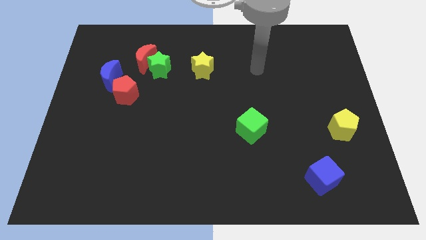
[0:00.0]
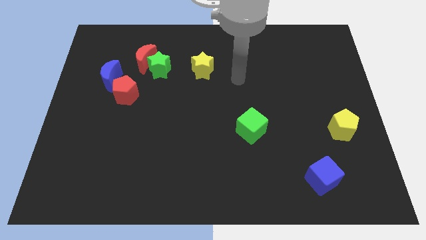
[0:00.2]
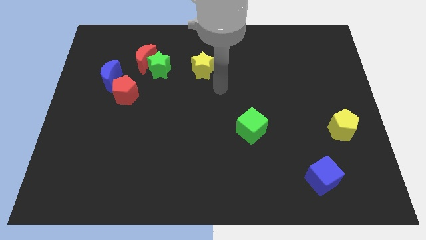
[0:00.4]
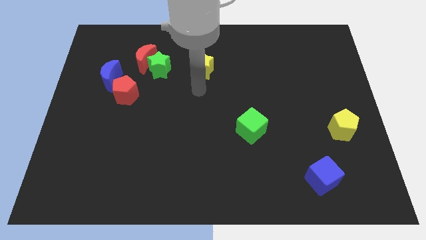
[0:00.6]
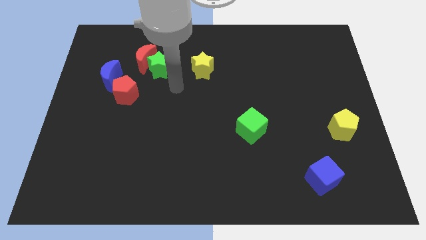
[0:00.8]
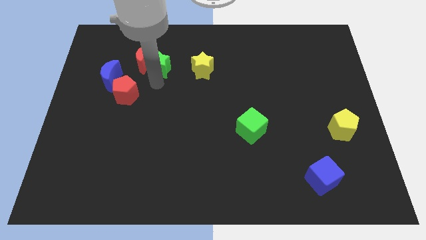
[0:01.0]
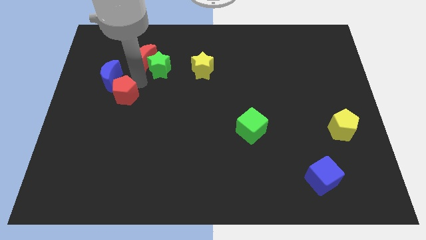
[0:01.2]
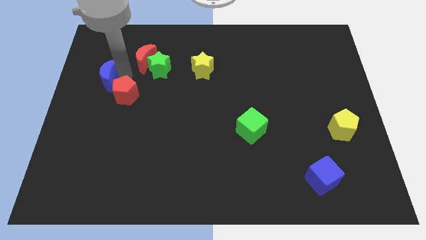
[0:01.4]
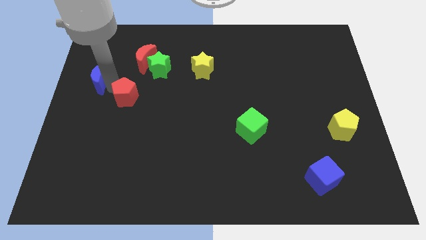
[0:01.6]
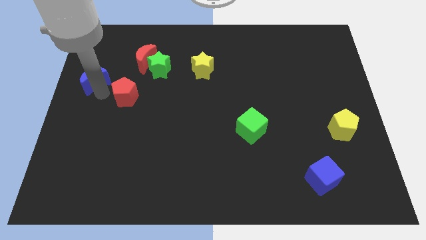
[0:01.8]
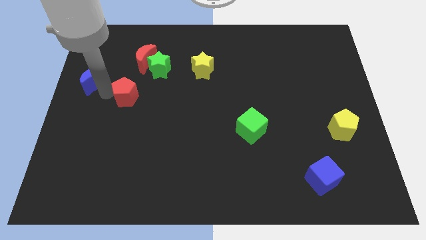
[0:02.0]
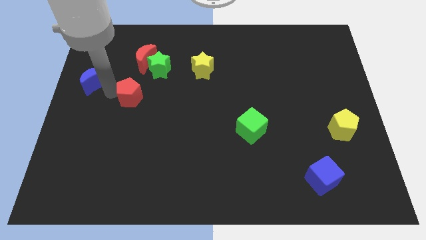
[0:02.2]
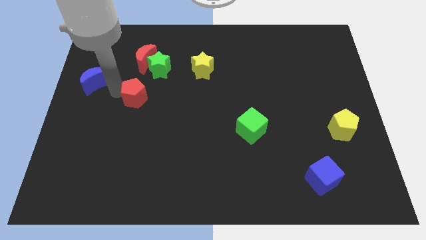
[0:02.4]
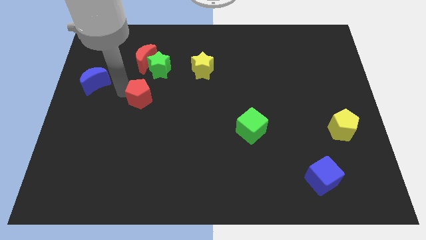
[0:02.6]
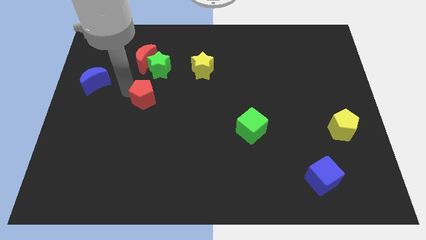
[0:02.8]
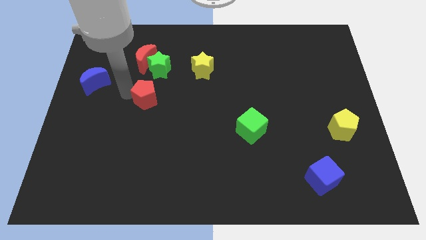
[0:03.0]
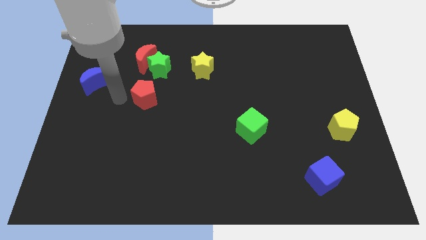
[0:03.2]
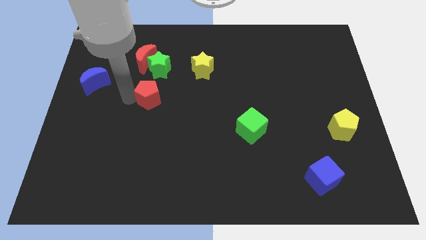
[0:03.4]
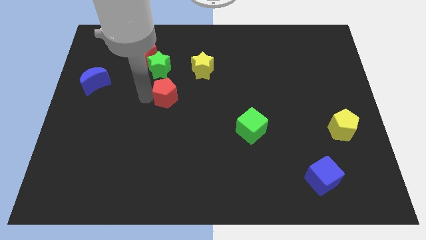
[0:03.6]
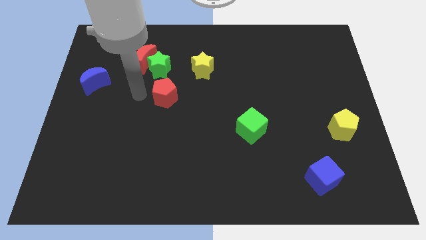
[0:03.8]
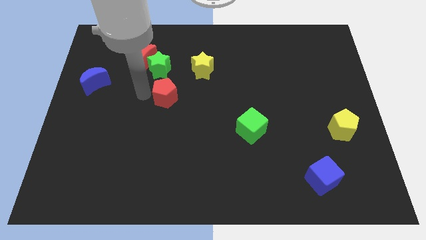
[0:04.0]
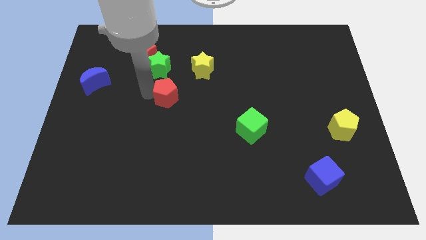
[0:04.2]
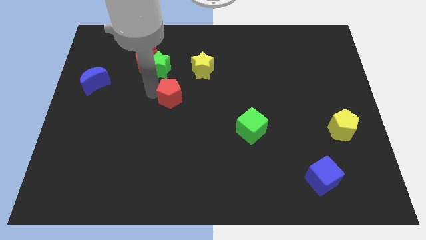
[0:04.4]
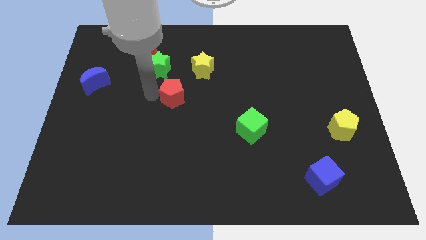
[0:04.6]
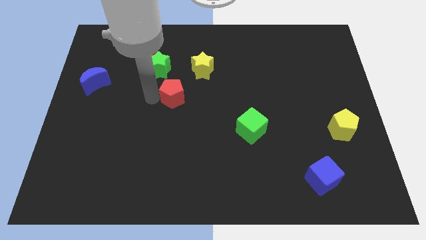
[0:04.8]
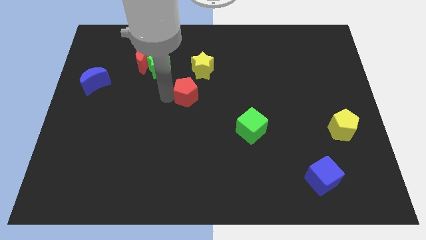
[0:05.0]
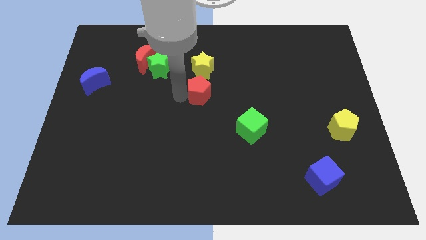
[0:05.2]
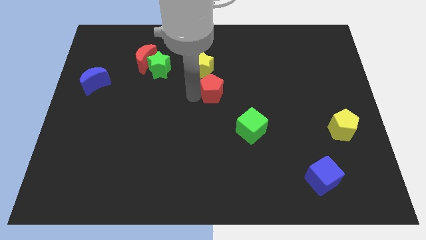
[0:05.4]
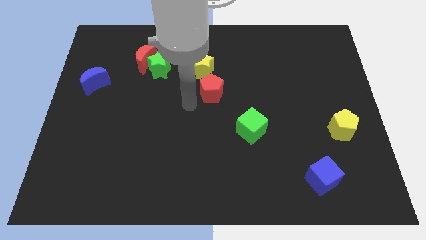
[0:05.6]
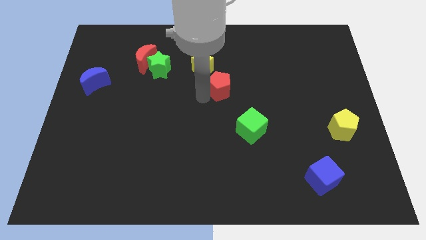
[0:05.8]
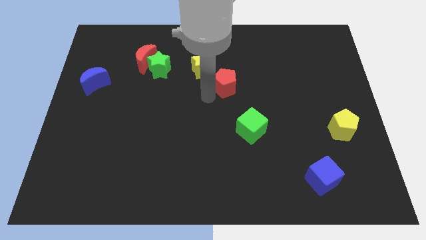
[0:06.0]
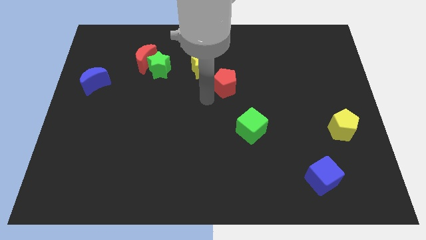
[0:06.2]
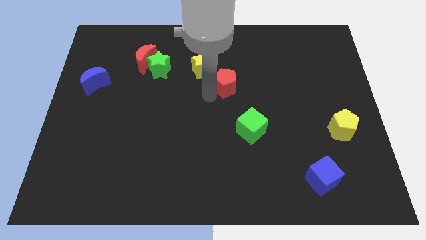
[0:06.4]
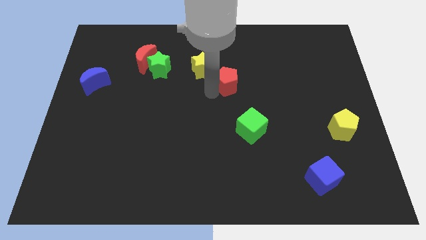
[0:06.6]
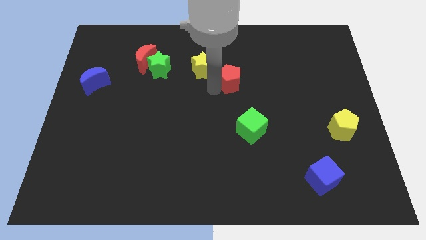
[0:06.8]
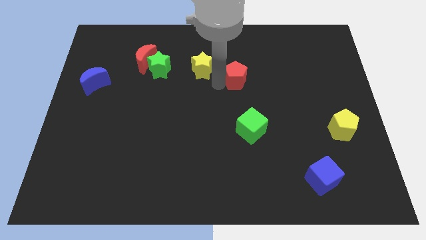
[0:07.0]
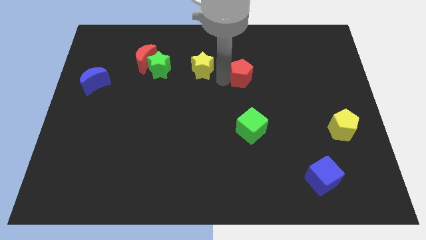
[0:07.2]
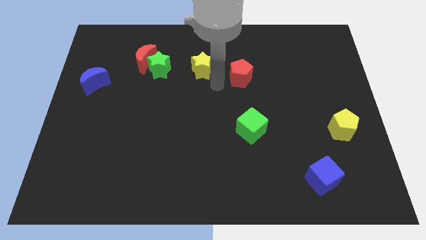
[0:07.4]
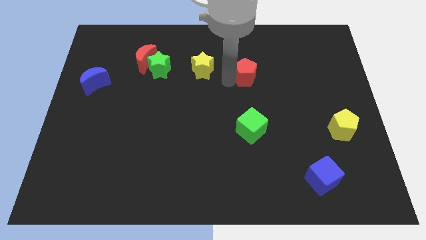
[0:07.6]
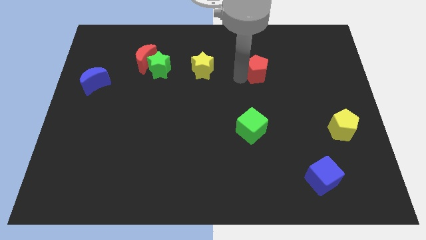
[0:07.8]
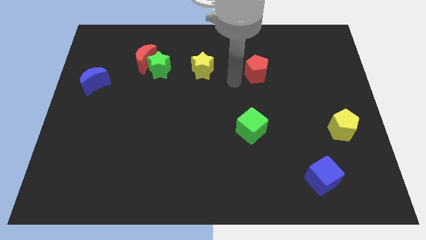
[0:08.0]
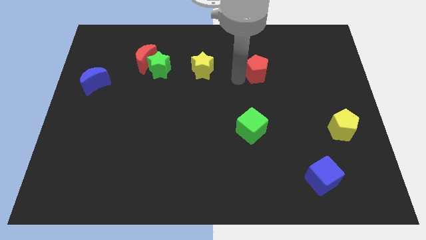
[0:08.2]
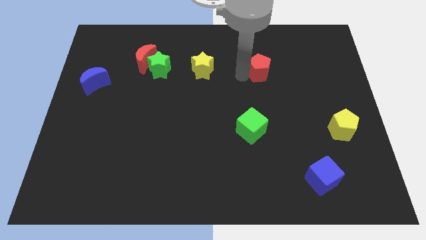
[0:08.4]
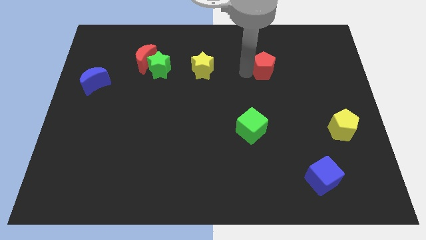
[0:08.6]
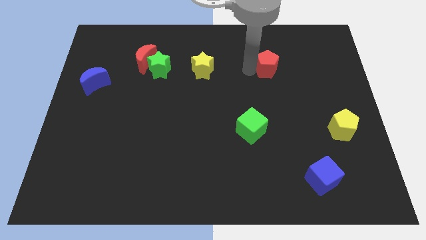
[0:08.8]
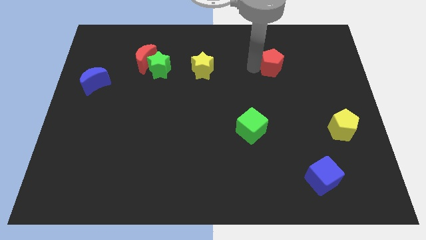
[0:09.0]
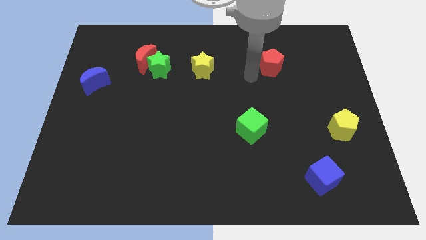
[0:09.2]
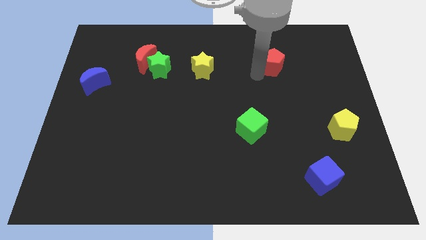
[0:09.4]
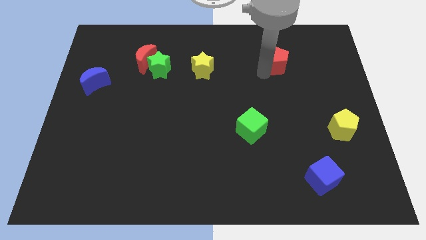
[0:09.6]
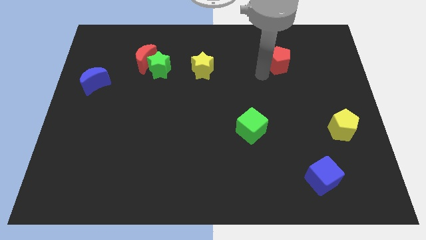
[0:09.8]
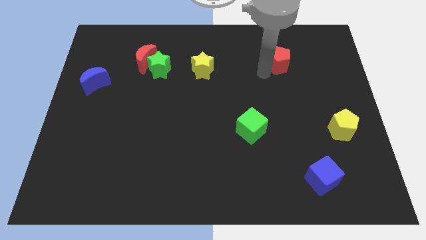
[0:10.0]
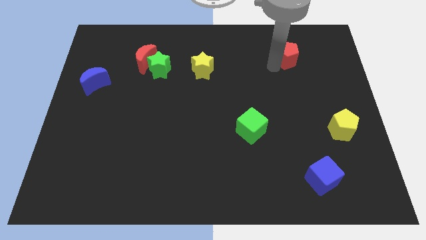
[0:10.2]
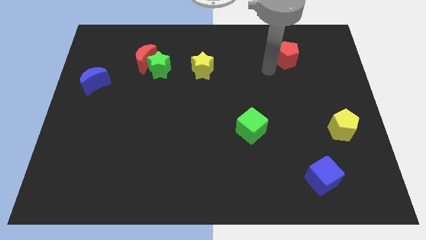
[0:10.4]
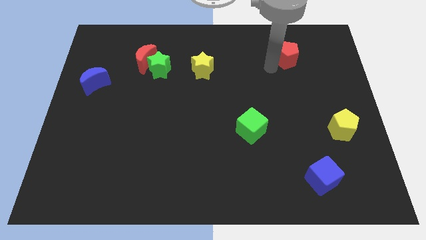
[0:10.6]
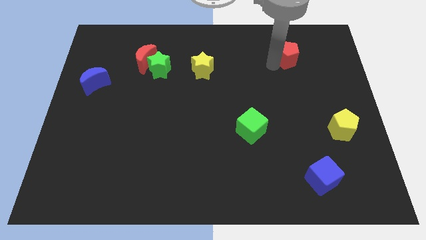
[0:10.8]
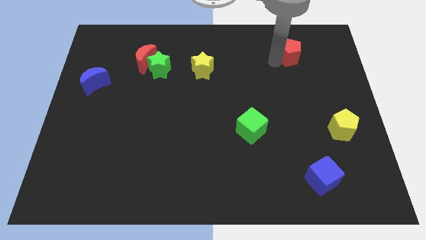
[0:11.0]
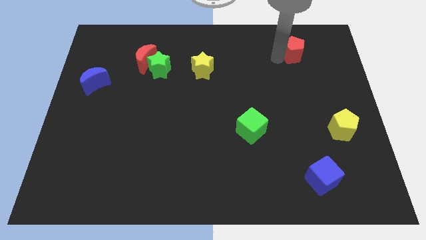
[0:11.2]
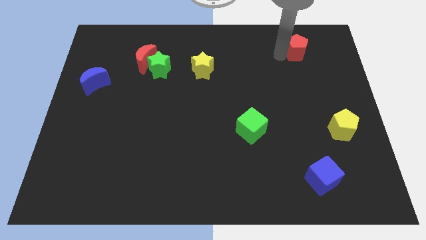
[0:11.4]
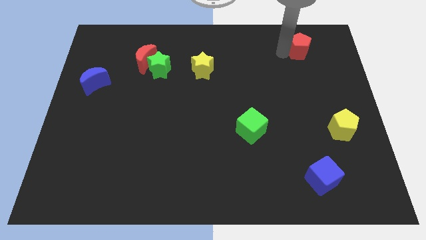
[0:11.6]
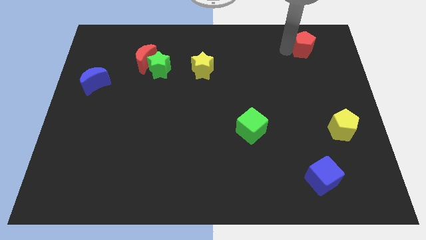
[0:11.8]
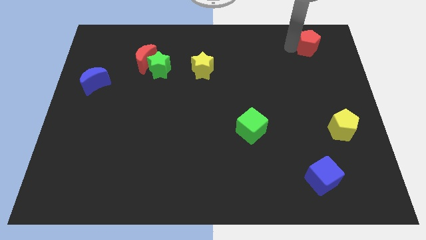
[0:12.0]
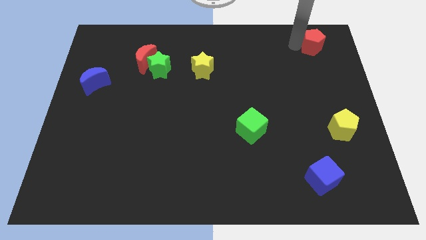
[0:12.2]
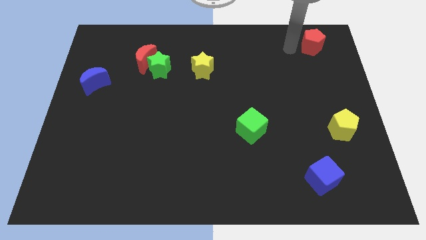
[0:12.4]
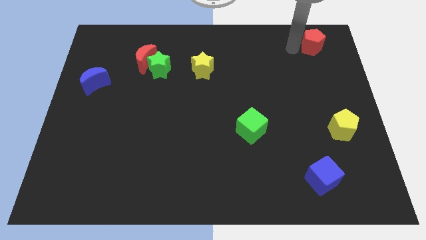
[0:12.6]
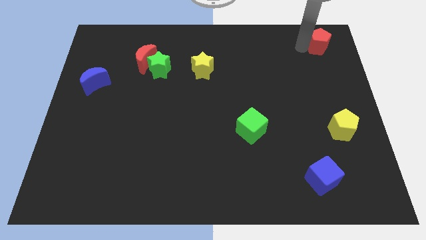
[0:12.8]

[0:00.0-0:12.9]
put the red pentagon to the upper right corner

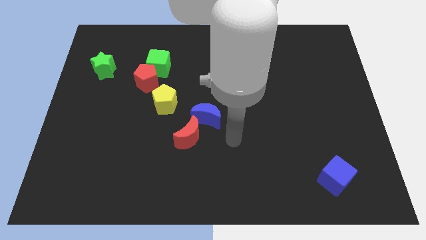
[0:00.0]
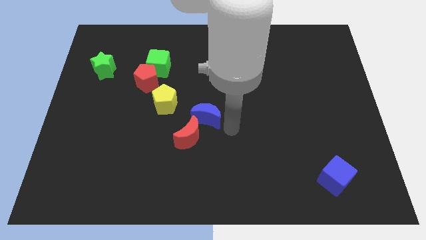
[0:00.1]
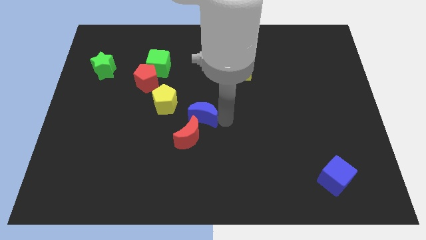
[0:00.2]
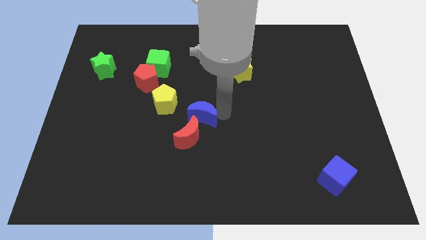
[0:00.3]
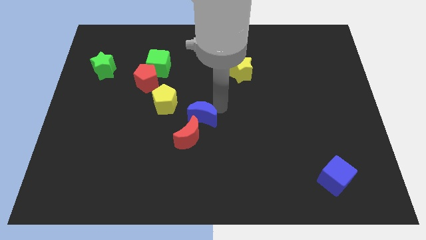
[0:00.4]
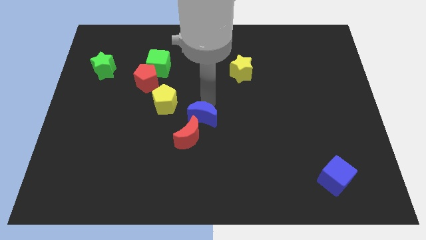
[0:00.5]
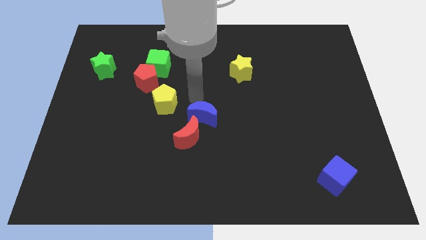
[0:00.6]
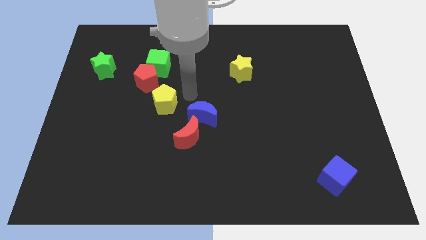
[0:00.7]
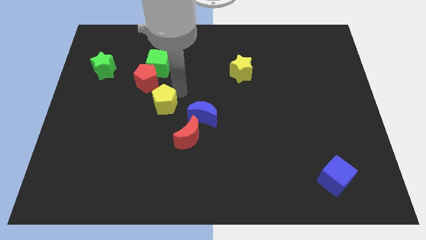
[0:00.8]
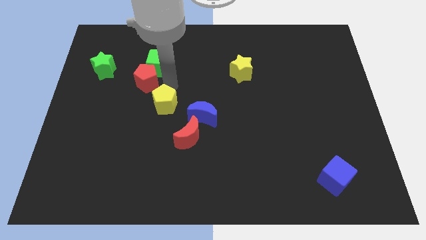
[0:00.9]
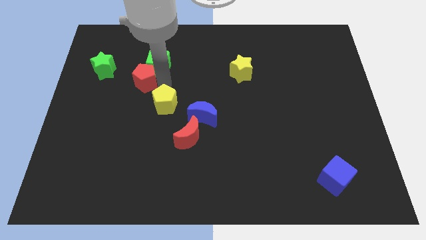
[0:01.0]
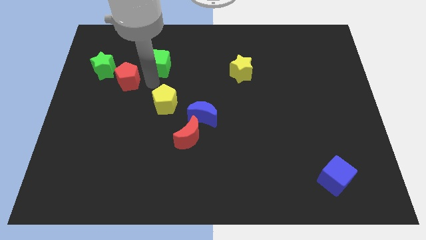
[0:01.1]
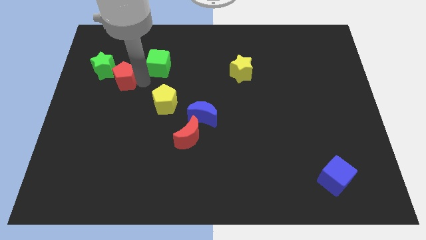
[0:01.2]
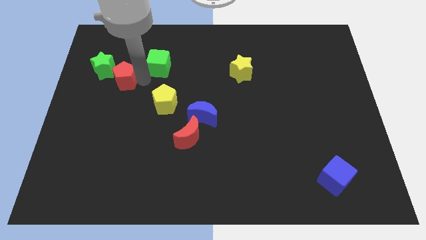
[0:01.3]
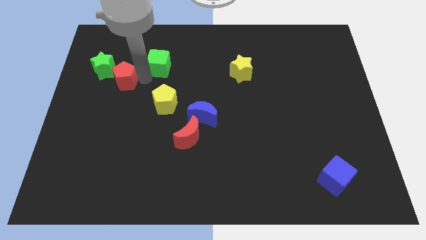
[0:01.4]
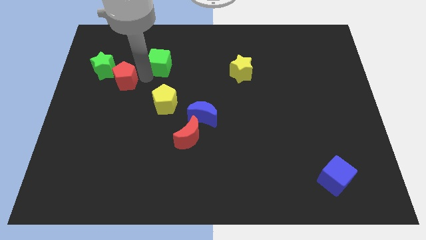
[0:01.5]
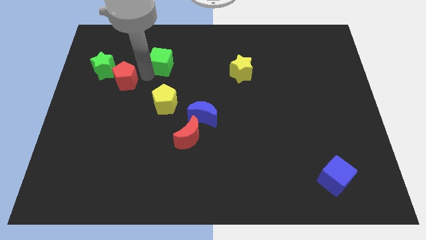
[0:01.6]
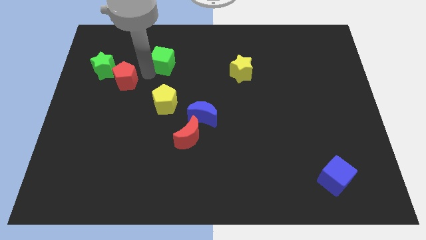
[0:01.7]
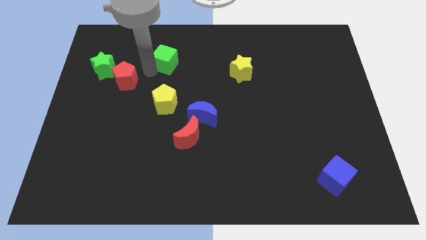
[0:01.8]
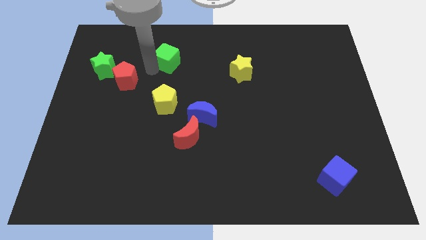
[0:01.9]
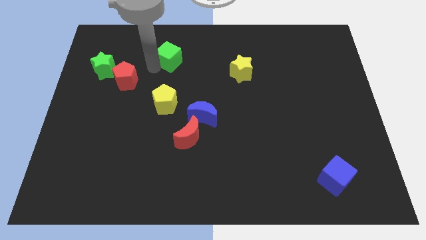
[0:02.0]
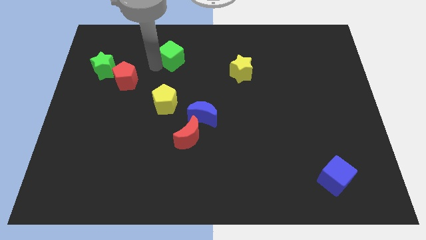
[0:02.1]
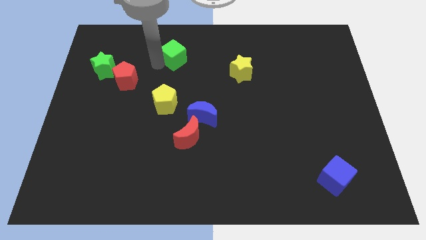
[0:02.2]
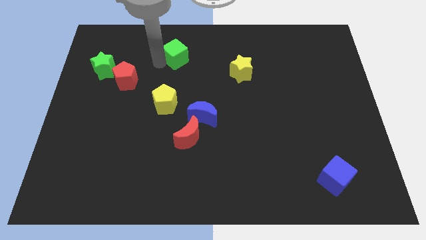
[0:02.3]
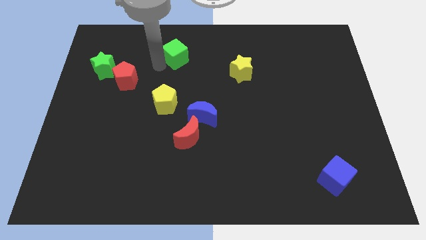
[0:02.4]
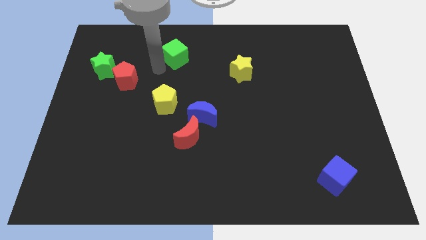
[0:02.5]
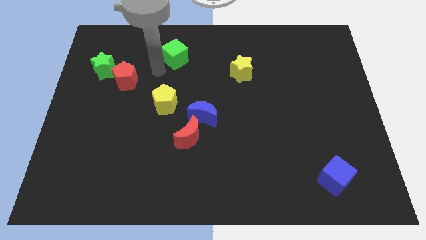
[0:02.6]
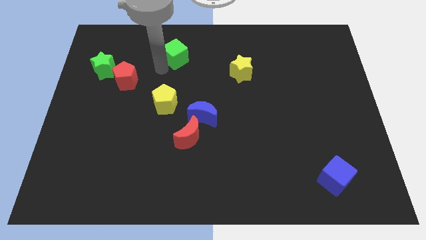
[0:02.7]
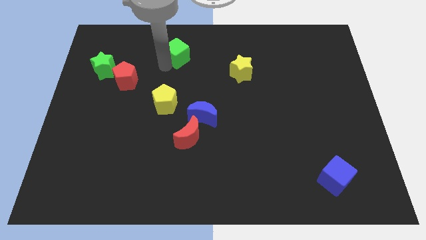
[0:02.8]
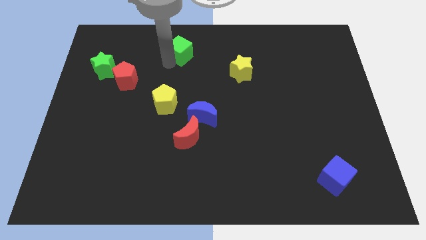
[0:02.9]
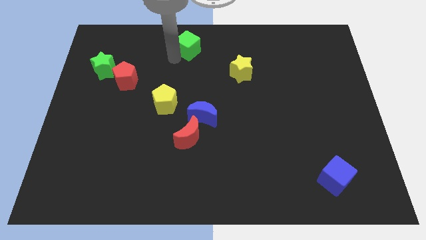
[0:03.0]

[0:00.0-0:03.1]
push the green cube to the top side
